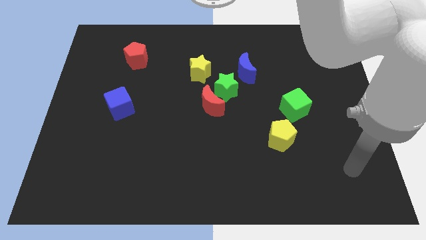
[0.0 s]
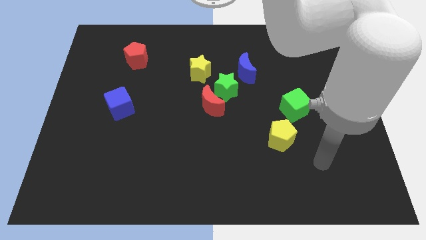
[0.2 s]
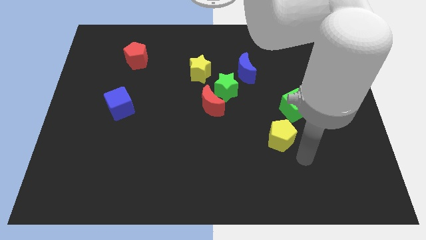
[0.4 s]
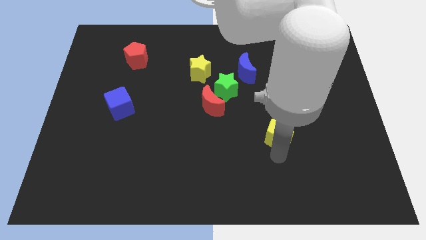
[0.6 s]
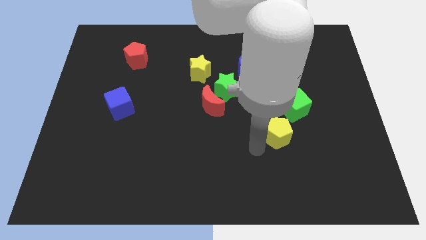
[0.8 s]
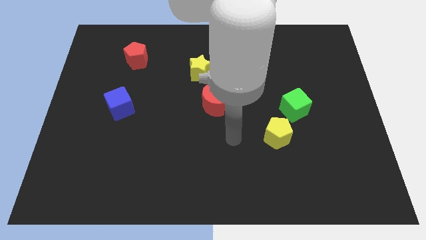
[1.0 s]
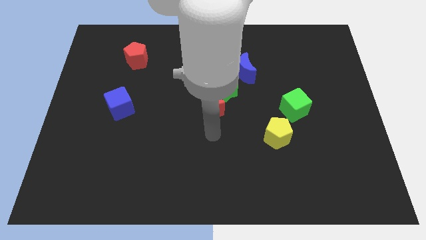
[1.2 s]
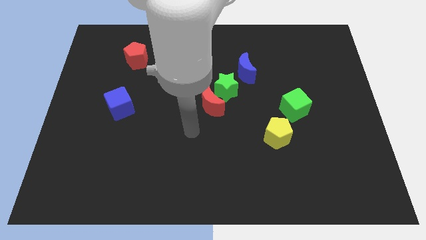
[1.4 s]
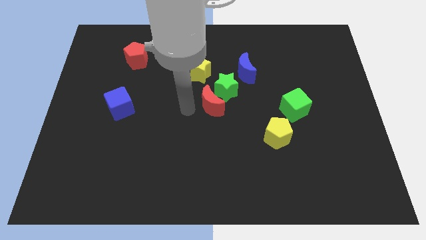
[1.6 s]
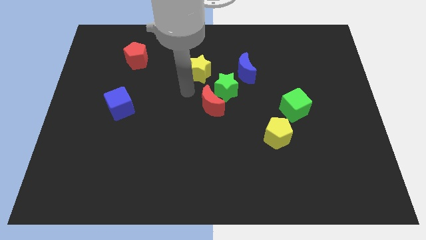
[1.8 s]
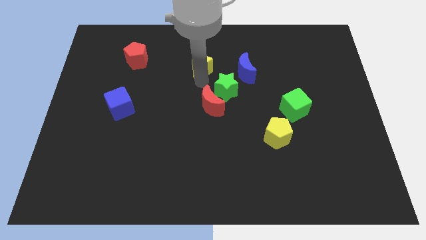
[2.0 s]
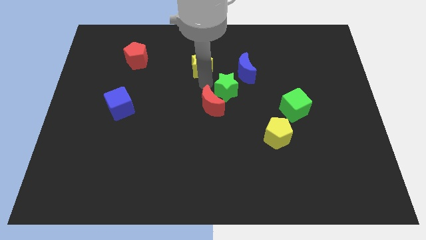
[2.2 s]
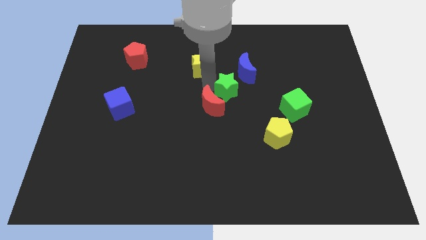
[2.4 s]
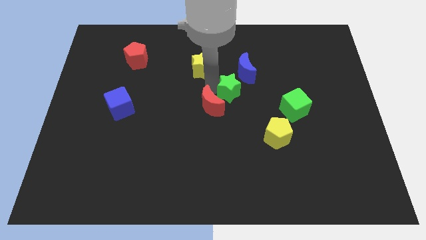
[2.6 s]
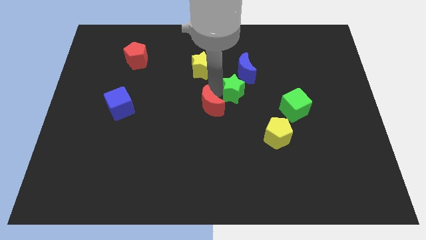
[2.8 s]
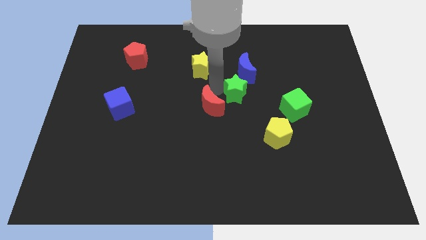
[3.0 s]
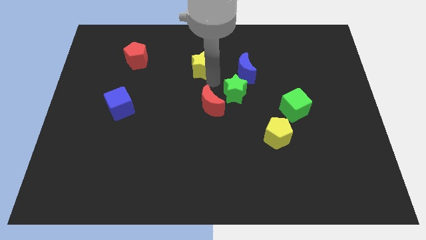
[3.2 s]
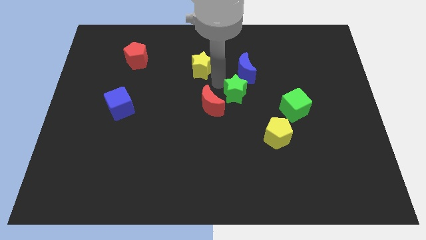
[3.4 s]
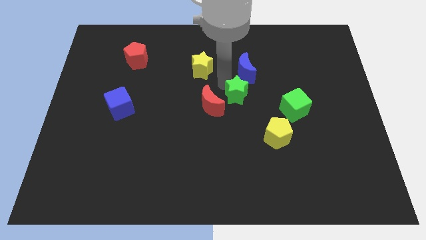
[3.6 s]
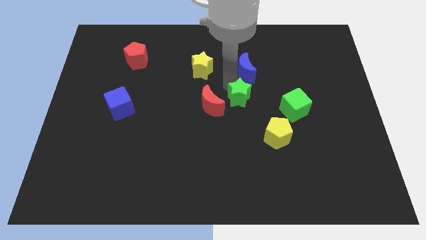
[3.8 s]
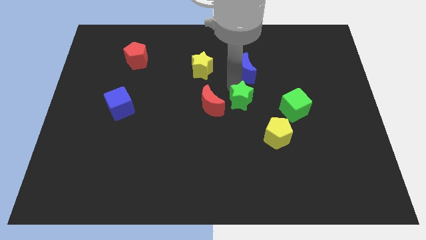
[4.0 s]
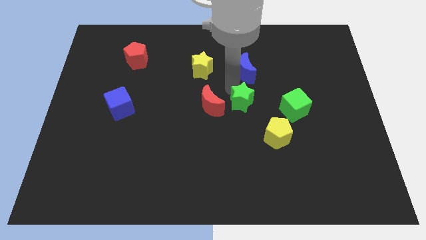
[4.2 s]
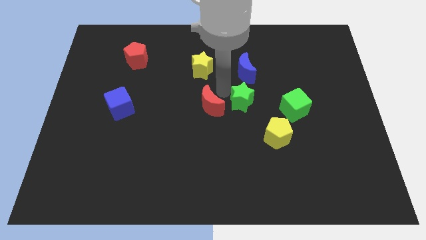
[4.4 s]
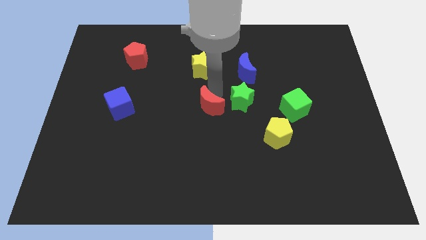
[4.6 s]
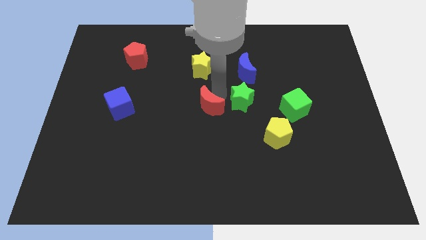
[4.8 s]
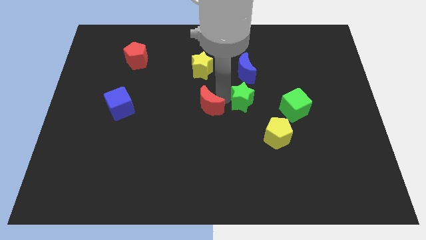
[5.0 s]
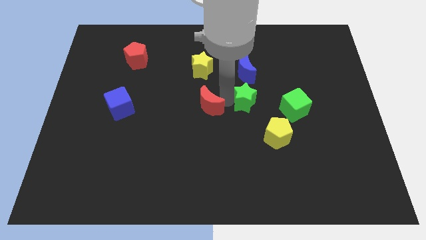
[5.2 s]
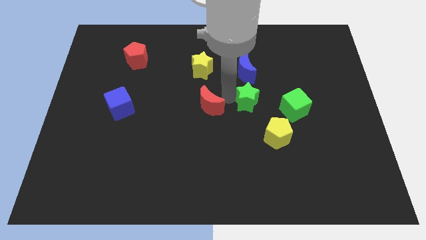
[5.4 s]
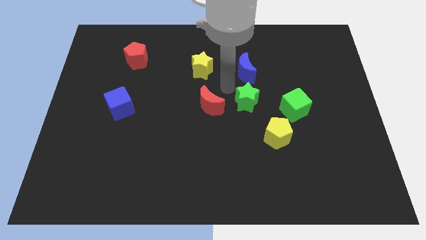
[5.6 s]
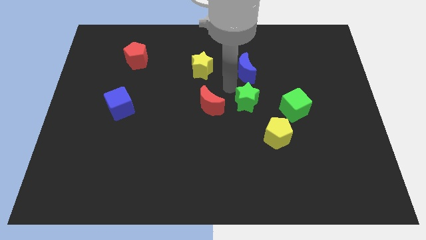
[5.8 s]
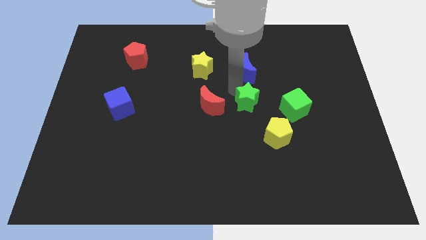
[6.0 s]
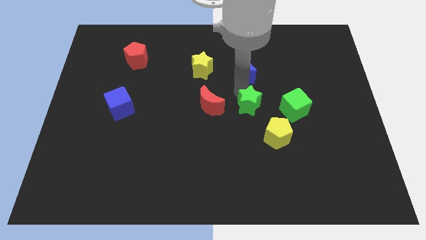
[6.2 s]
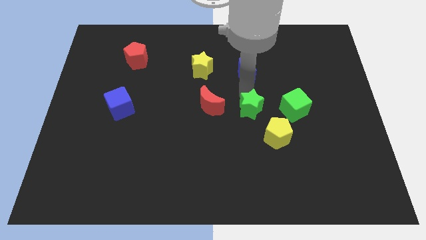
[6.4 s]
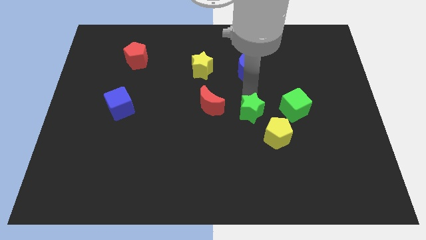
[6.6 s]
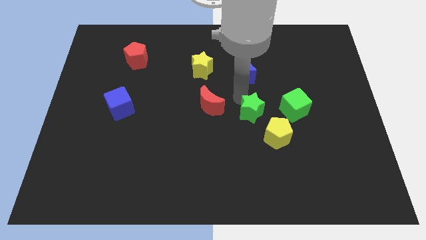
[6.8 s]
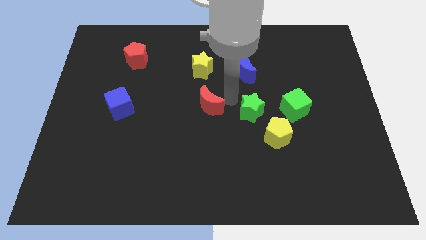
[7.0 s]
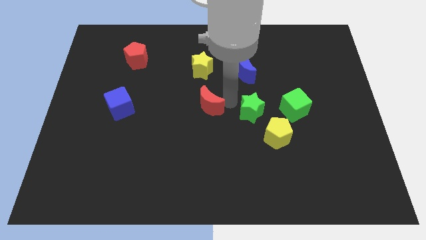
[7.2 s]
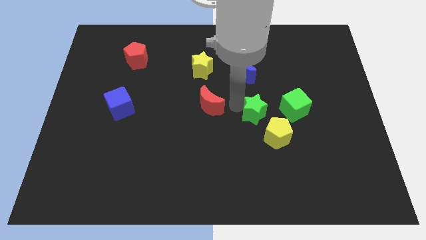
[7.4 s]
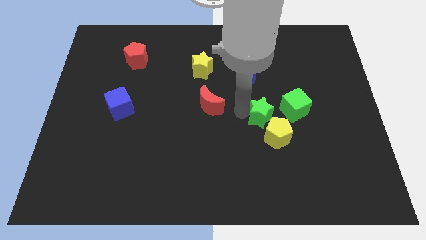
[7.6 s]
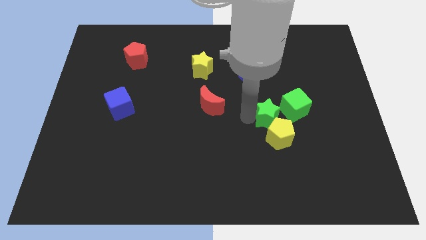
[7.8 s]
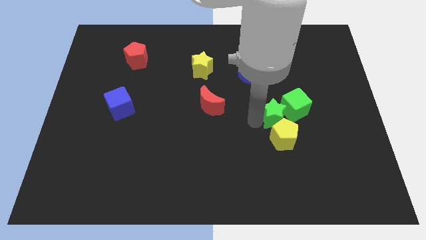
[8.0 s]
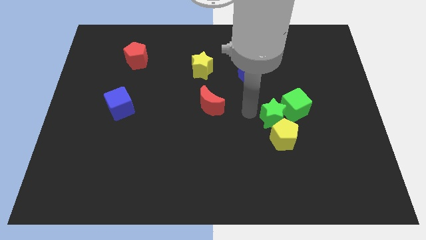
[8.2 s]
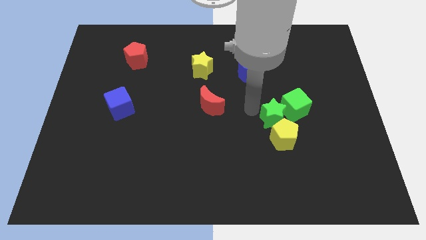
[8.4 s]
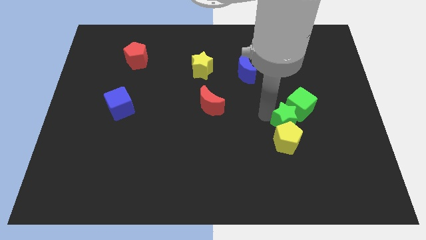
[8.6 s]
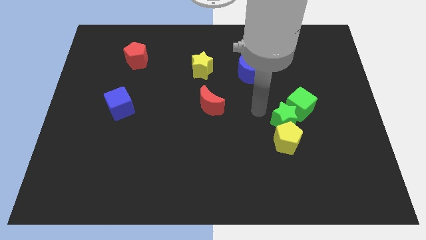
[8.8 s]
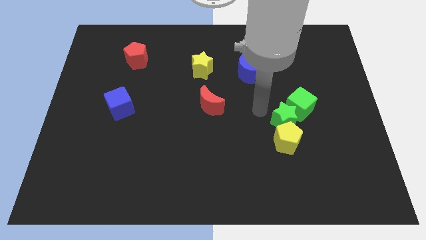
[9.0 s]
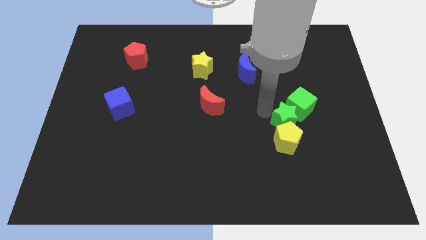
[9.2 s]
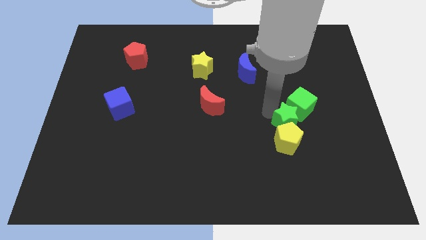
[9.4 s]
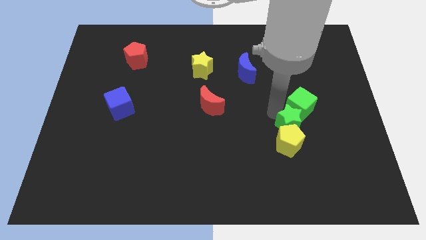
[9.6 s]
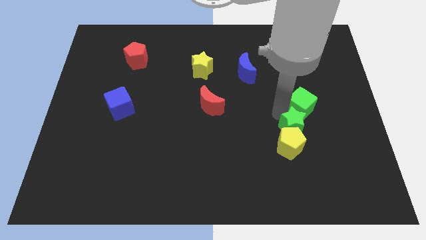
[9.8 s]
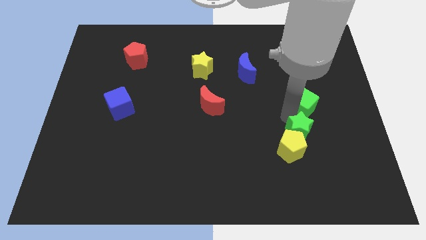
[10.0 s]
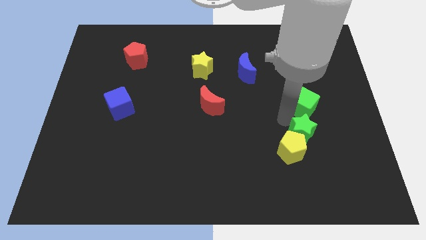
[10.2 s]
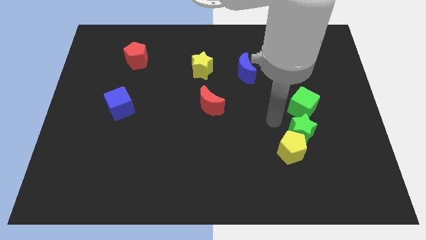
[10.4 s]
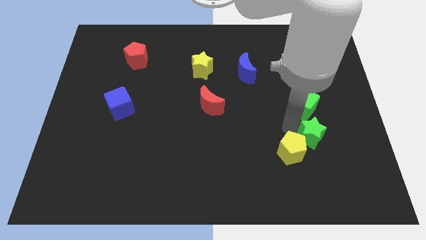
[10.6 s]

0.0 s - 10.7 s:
slide the green star right of the yellow pentagon

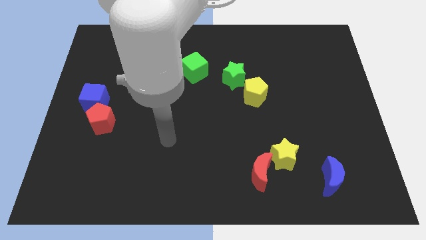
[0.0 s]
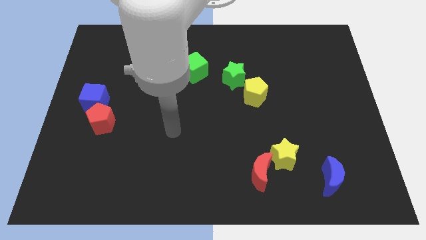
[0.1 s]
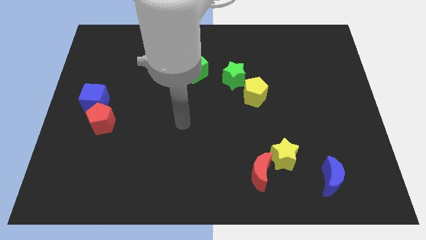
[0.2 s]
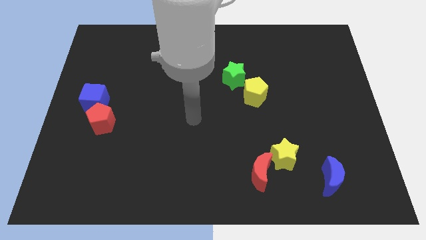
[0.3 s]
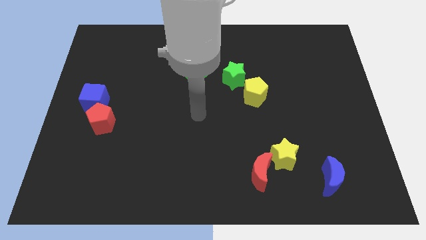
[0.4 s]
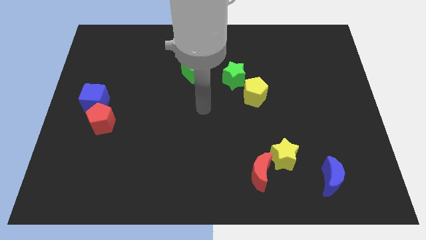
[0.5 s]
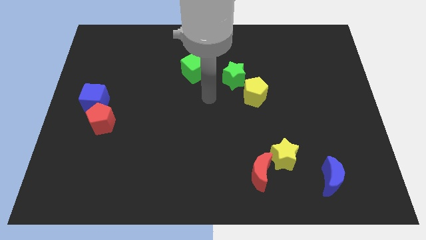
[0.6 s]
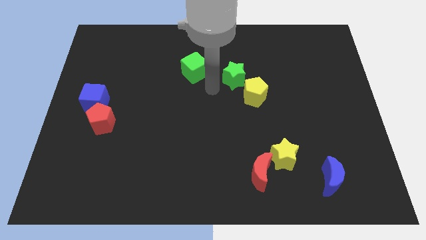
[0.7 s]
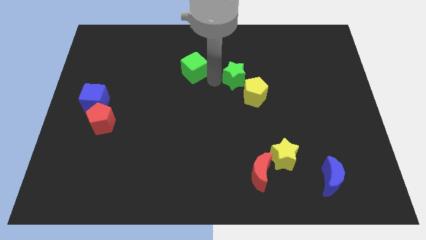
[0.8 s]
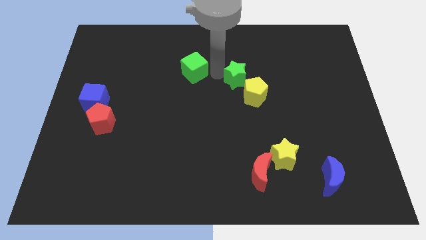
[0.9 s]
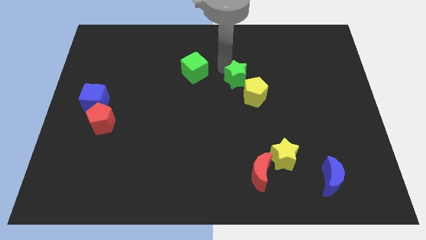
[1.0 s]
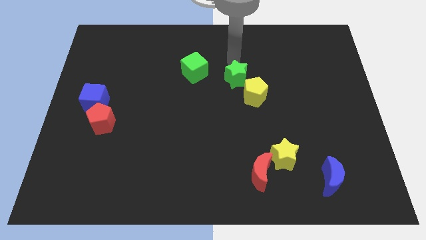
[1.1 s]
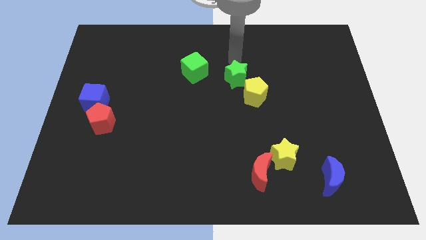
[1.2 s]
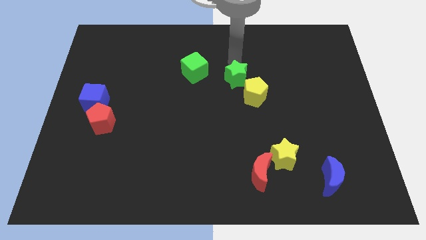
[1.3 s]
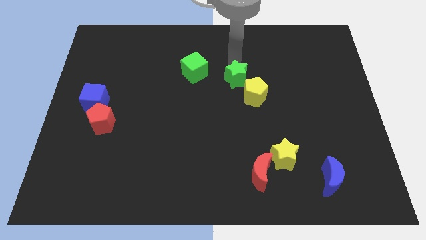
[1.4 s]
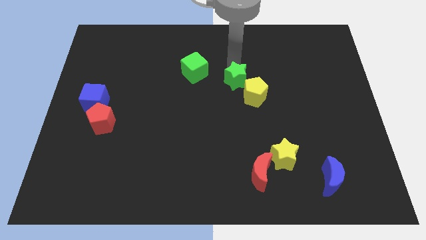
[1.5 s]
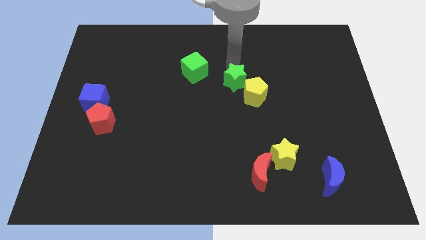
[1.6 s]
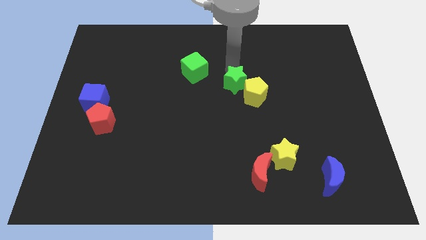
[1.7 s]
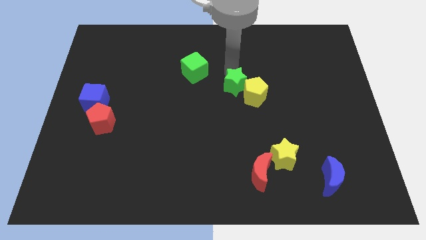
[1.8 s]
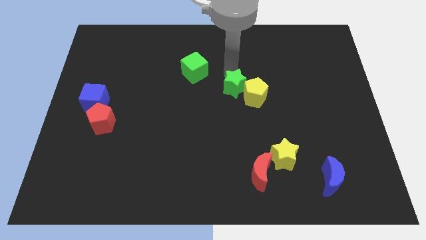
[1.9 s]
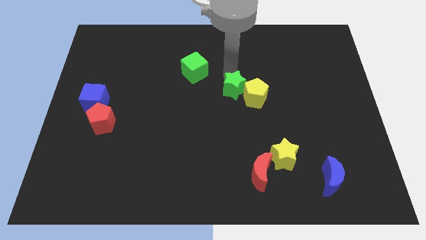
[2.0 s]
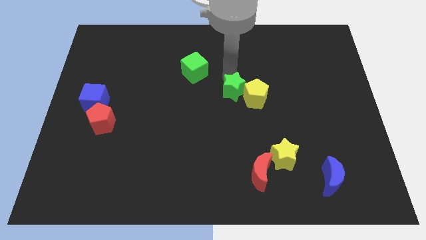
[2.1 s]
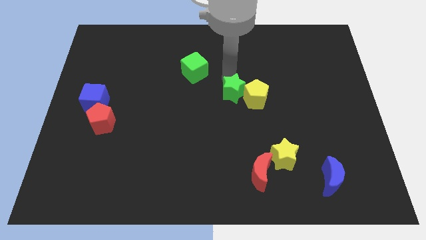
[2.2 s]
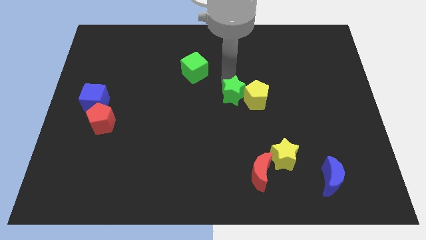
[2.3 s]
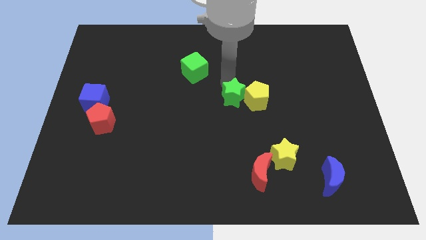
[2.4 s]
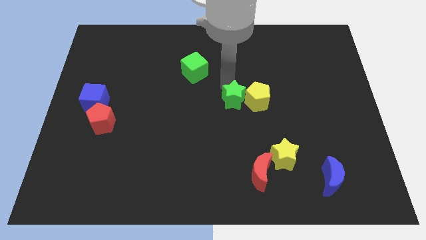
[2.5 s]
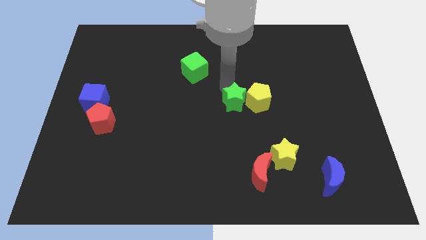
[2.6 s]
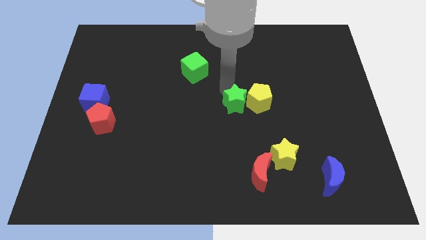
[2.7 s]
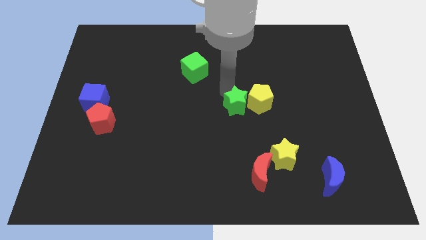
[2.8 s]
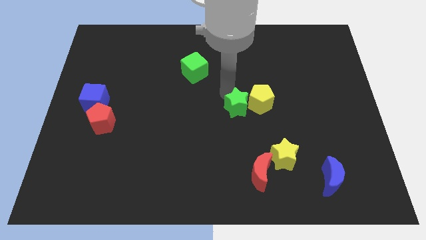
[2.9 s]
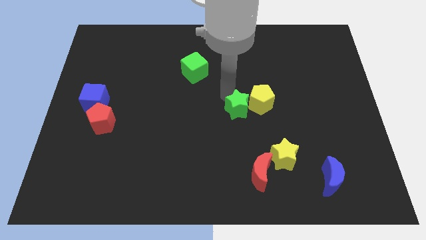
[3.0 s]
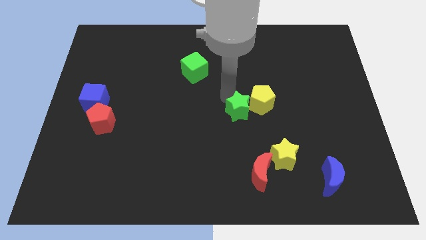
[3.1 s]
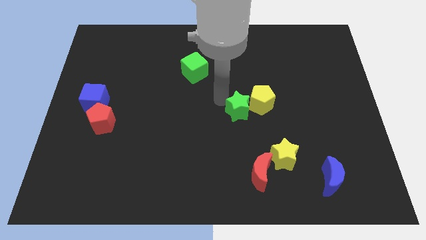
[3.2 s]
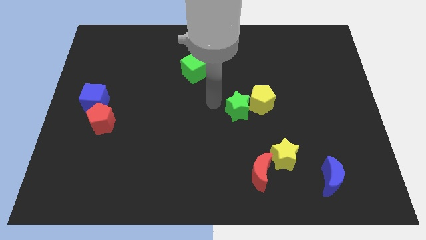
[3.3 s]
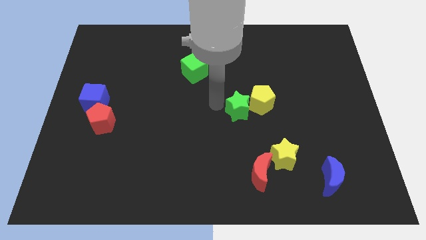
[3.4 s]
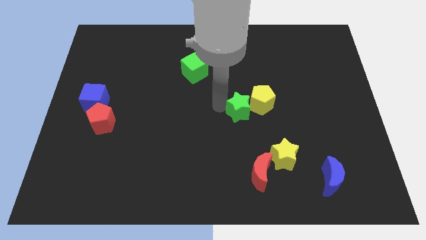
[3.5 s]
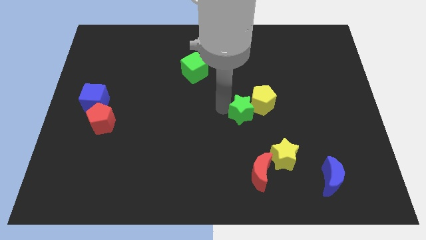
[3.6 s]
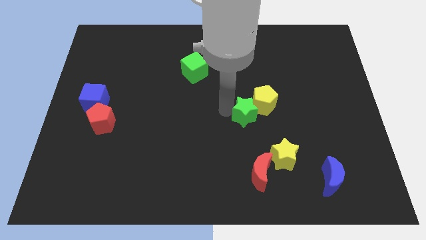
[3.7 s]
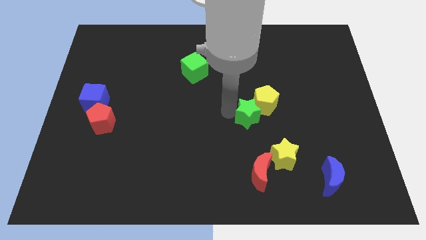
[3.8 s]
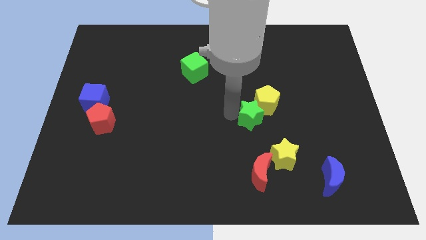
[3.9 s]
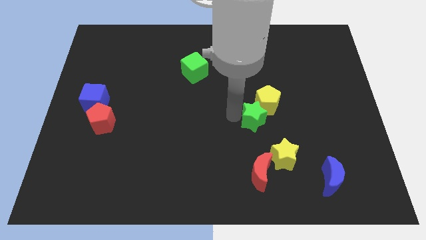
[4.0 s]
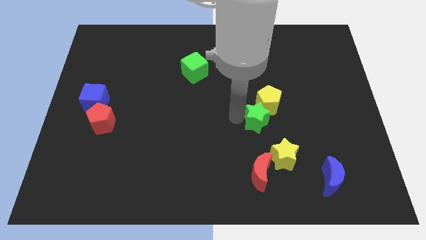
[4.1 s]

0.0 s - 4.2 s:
slide the green star to the top side of the yellow star
